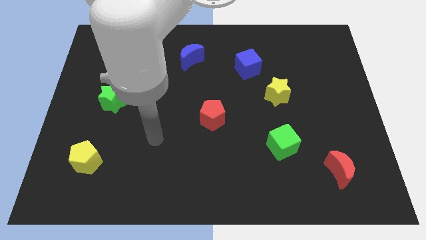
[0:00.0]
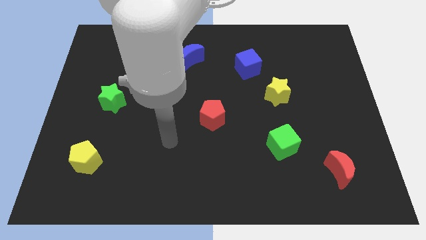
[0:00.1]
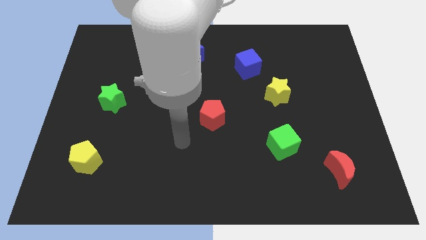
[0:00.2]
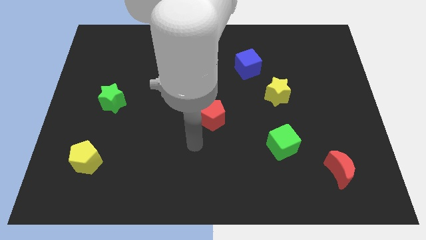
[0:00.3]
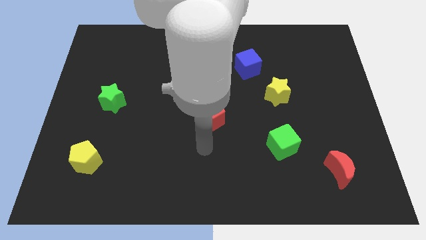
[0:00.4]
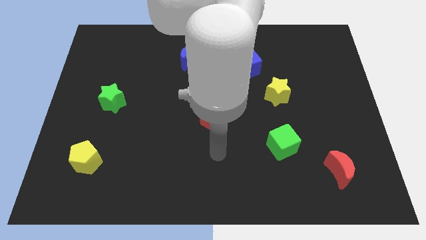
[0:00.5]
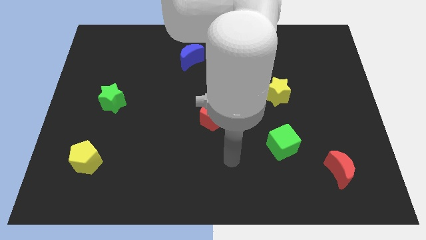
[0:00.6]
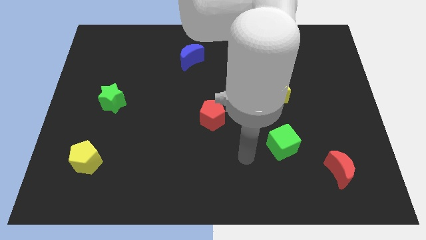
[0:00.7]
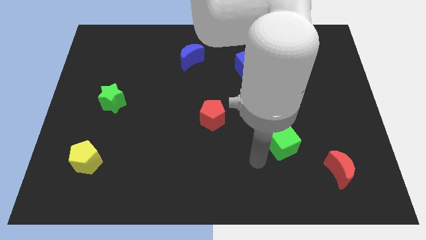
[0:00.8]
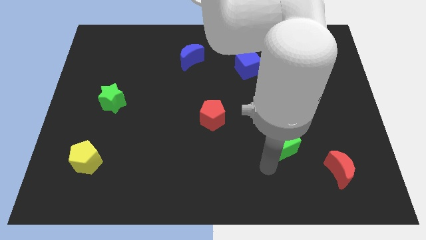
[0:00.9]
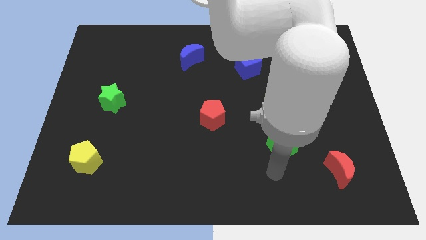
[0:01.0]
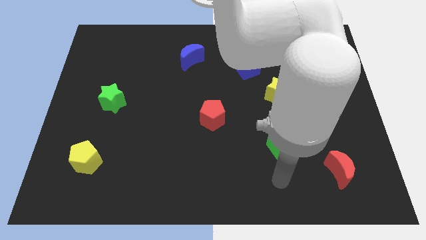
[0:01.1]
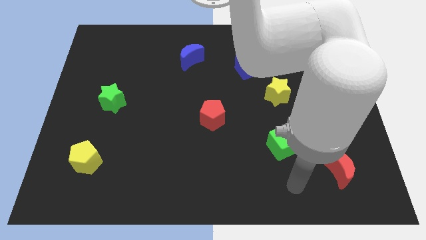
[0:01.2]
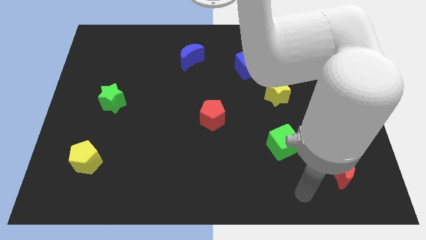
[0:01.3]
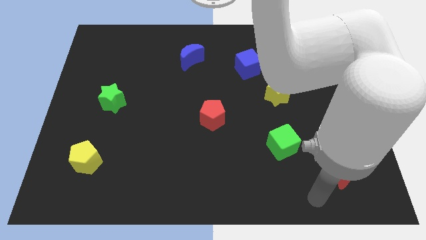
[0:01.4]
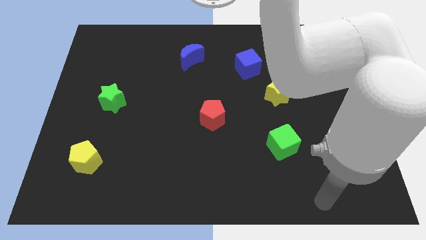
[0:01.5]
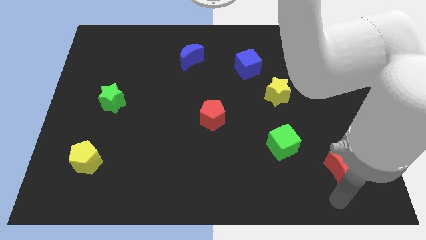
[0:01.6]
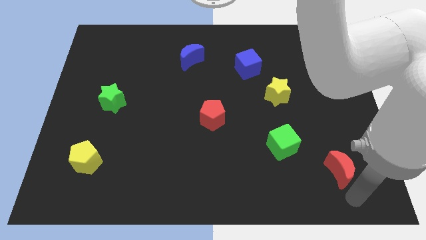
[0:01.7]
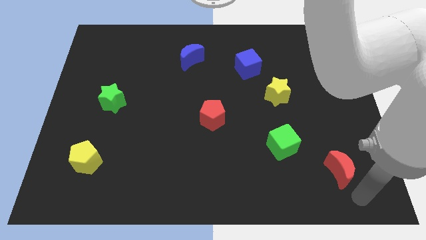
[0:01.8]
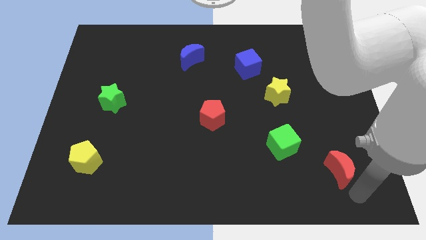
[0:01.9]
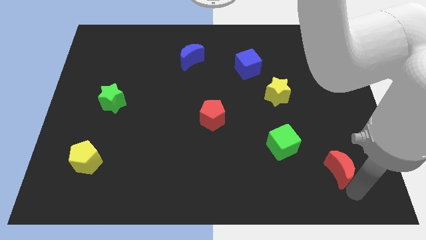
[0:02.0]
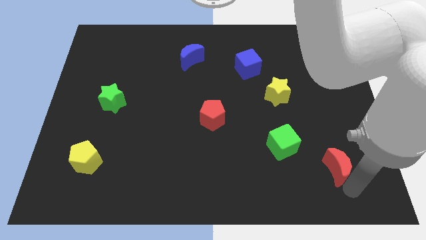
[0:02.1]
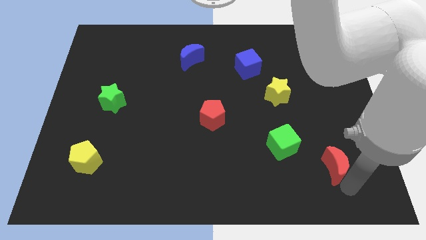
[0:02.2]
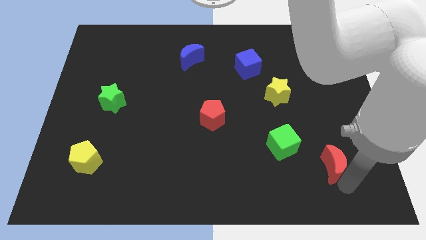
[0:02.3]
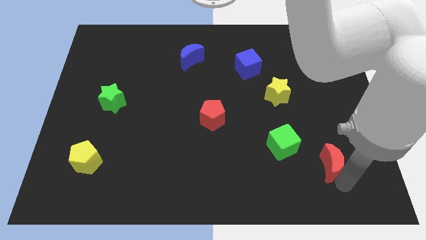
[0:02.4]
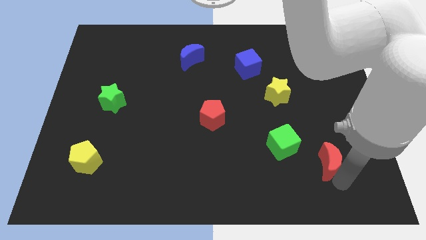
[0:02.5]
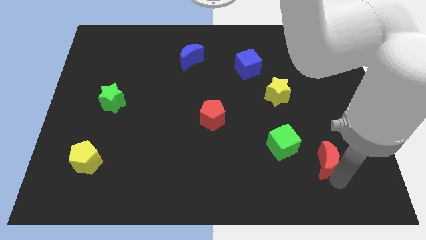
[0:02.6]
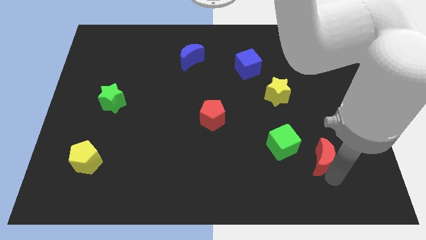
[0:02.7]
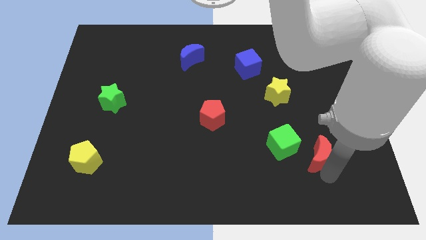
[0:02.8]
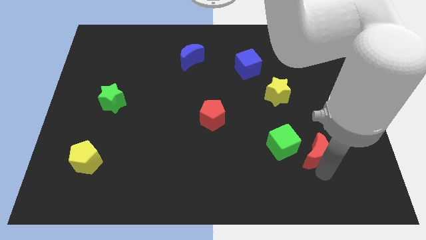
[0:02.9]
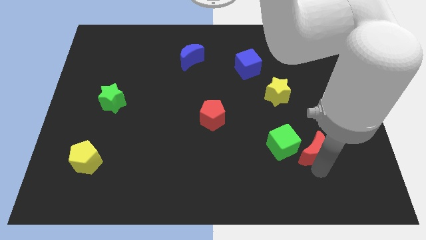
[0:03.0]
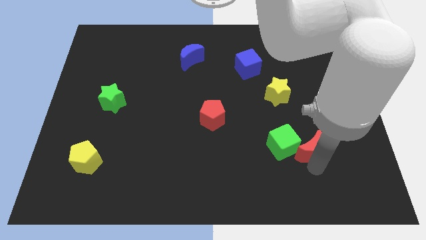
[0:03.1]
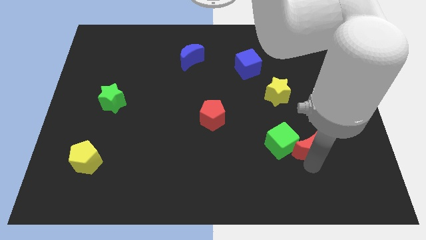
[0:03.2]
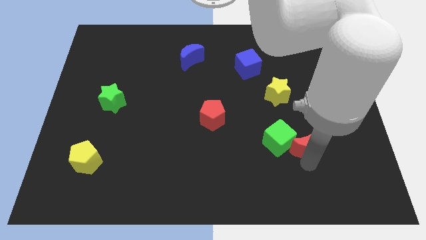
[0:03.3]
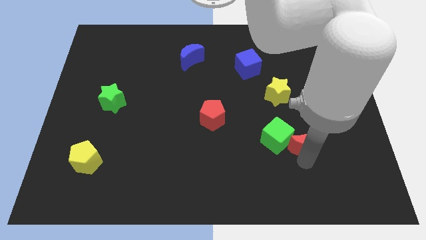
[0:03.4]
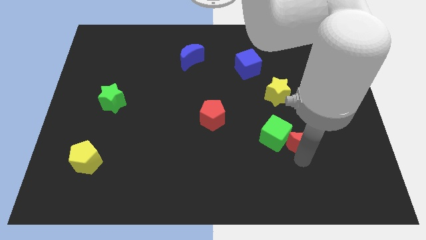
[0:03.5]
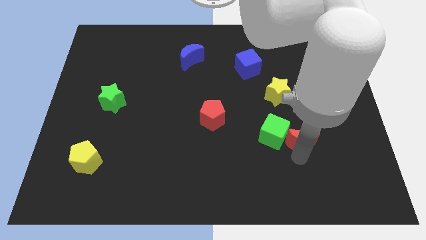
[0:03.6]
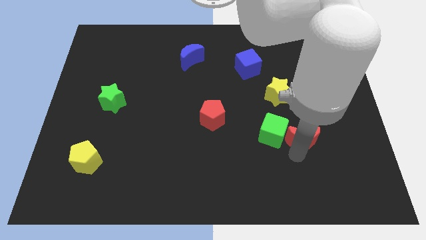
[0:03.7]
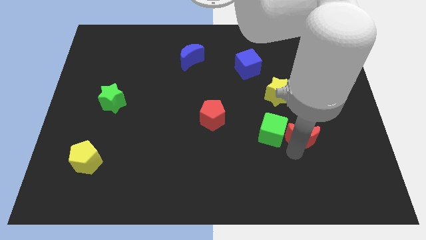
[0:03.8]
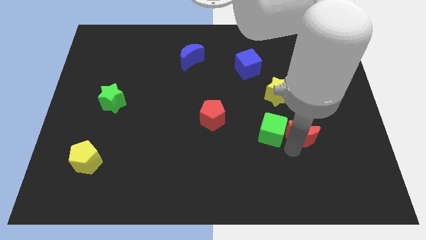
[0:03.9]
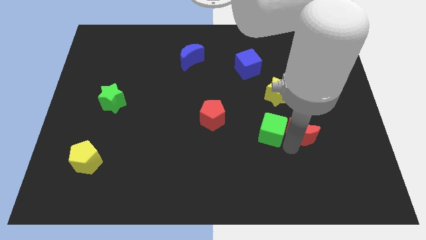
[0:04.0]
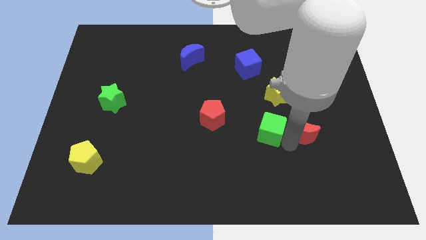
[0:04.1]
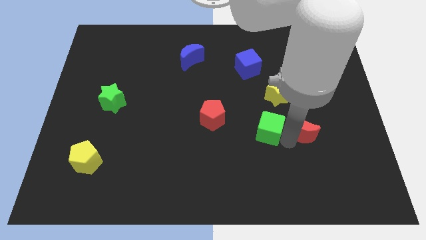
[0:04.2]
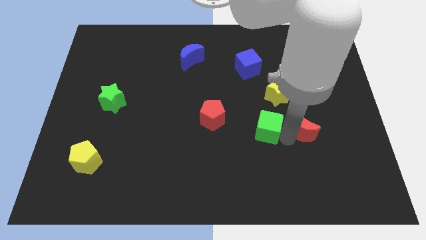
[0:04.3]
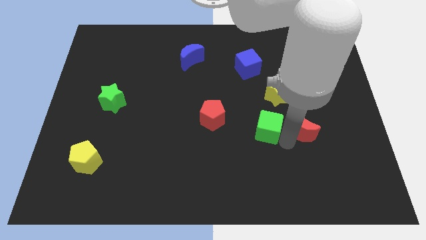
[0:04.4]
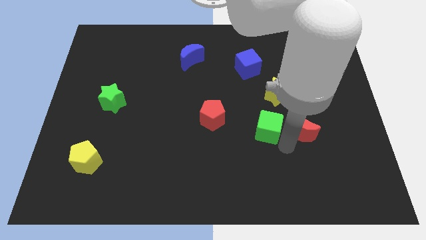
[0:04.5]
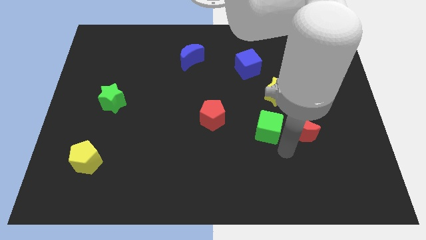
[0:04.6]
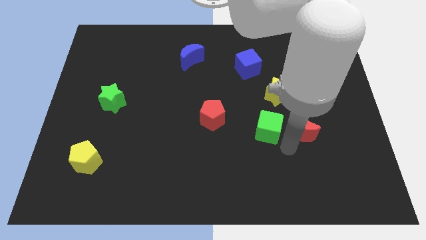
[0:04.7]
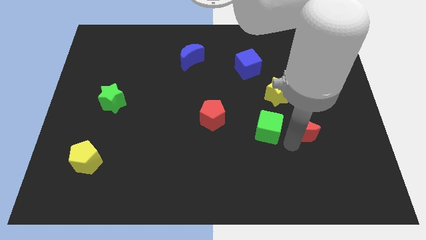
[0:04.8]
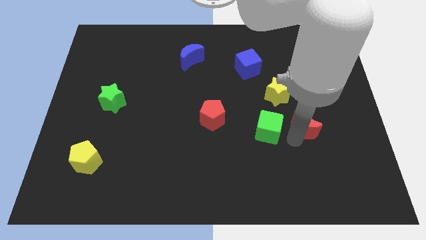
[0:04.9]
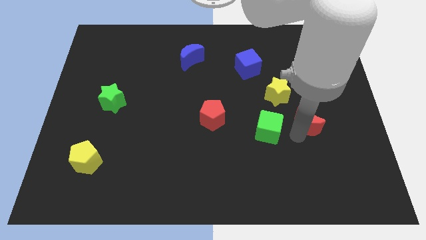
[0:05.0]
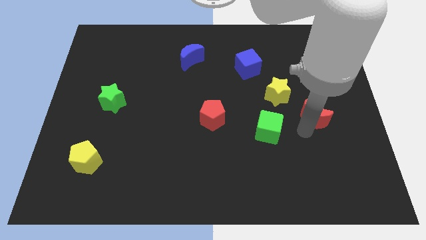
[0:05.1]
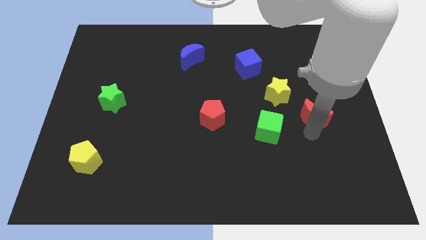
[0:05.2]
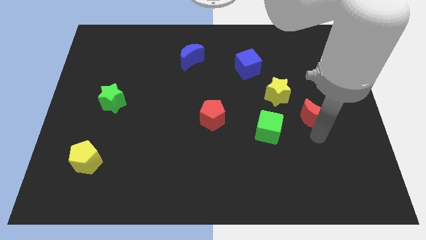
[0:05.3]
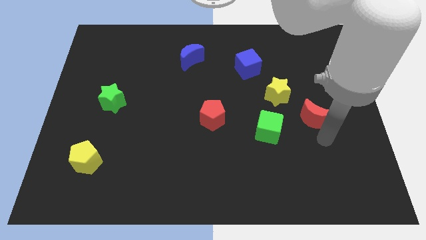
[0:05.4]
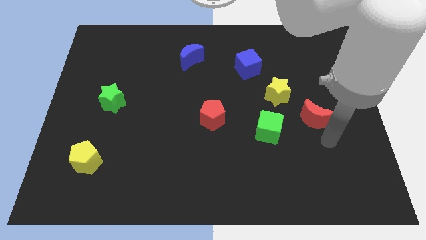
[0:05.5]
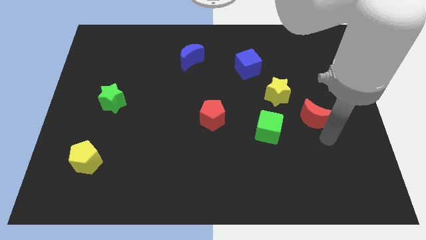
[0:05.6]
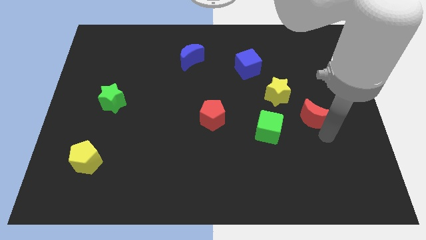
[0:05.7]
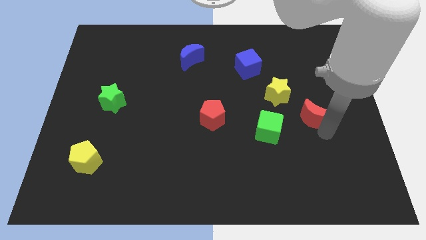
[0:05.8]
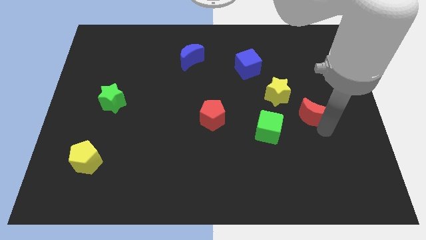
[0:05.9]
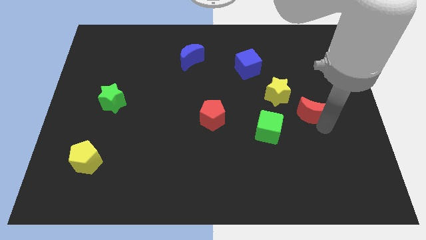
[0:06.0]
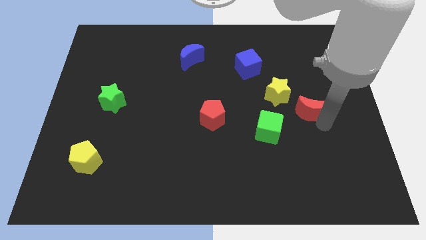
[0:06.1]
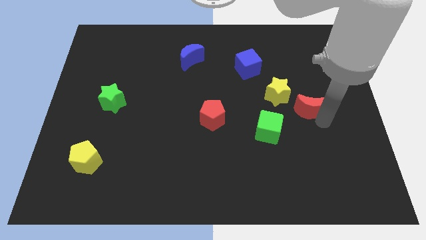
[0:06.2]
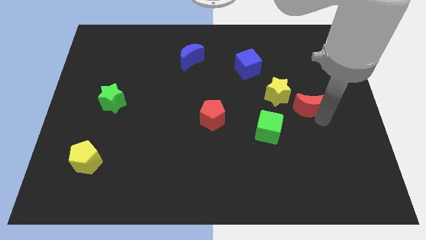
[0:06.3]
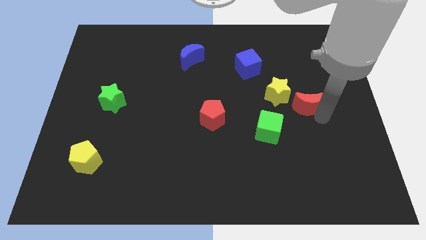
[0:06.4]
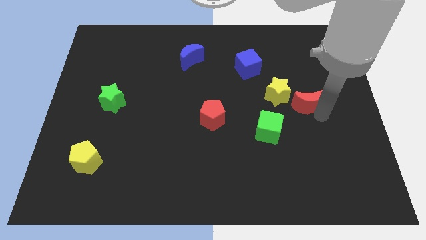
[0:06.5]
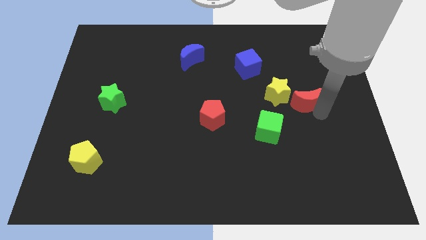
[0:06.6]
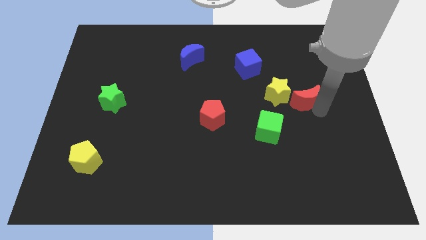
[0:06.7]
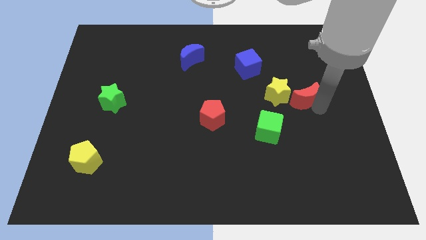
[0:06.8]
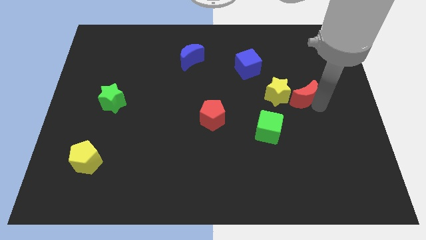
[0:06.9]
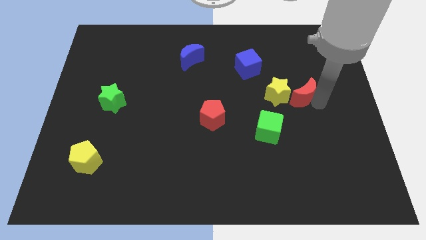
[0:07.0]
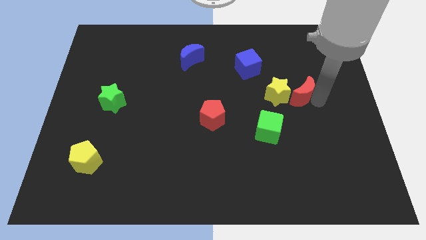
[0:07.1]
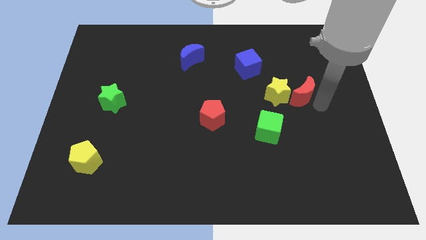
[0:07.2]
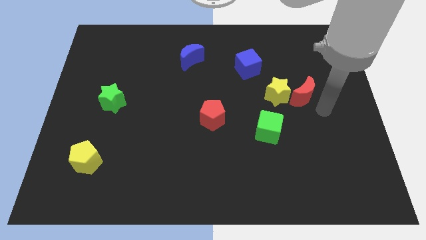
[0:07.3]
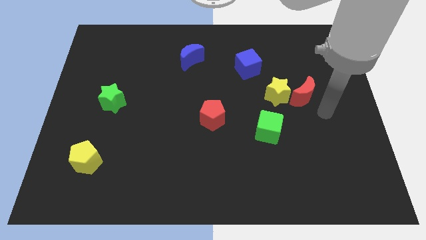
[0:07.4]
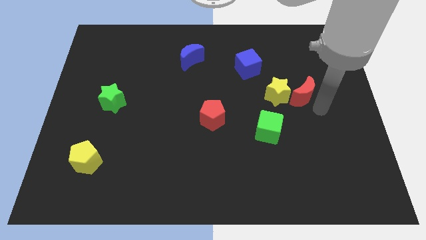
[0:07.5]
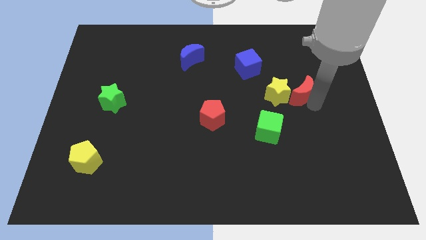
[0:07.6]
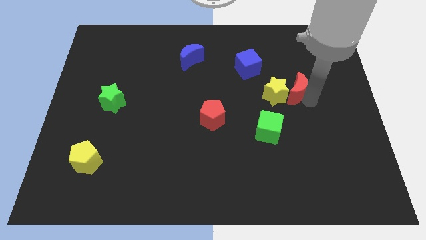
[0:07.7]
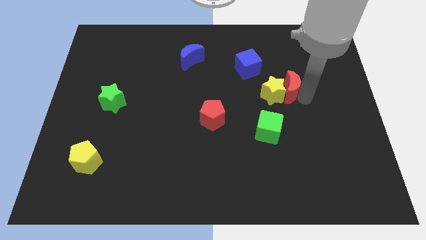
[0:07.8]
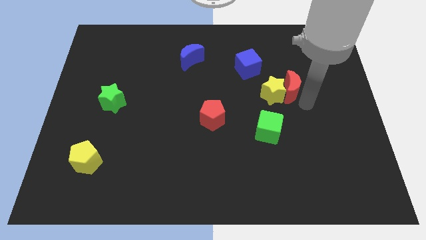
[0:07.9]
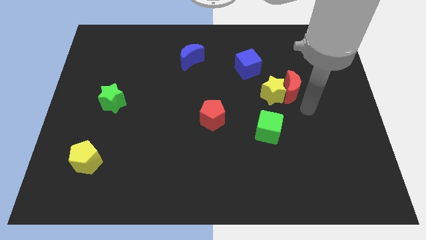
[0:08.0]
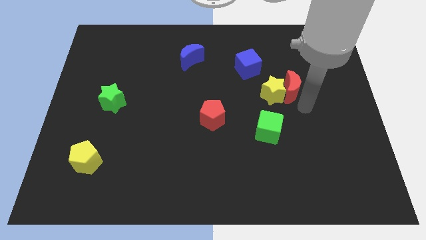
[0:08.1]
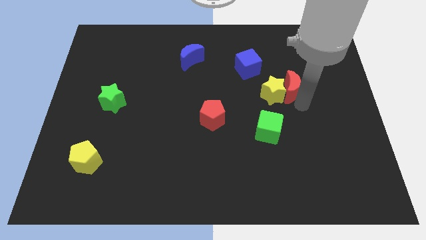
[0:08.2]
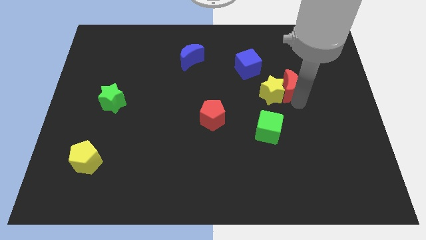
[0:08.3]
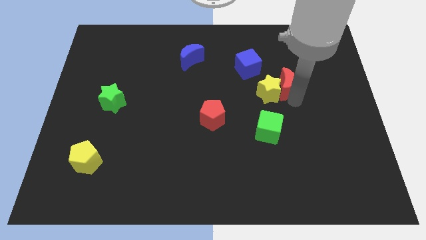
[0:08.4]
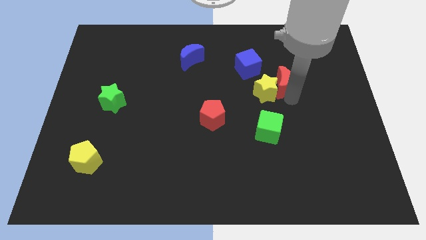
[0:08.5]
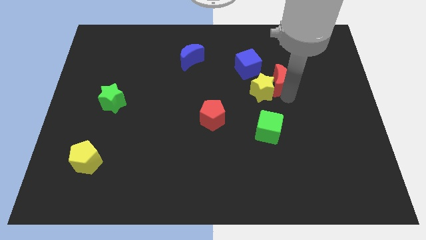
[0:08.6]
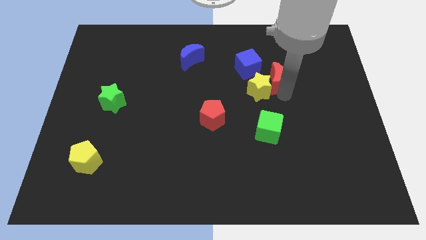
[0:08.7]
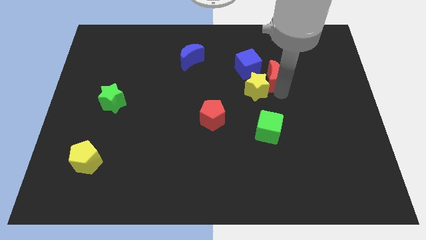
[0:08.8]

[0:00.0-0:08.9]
slide the red moon to the top side of the yellow star
